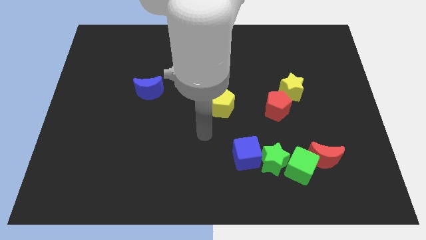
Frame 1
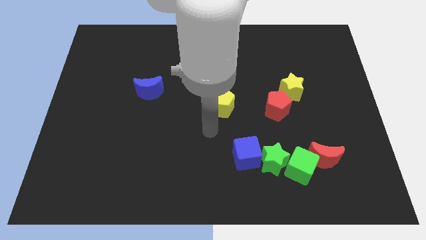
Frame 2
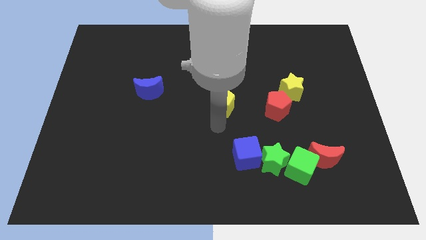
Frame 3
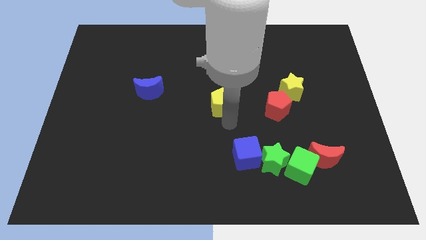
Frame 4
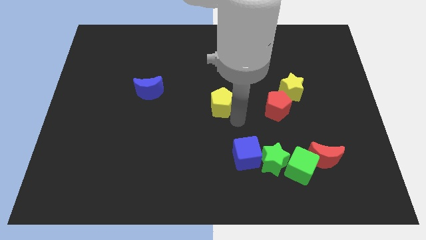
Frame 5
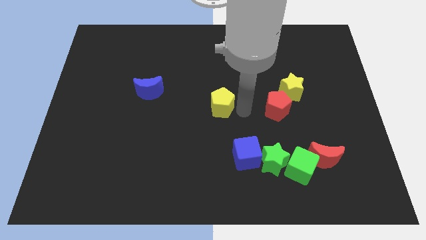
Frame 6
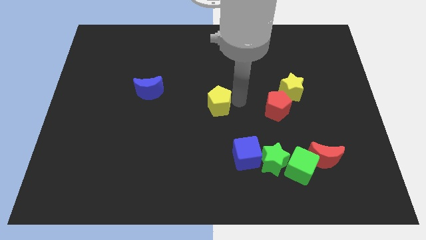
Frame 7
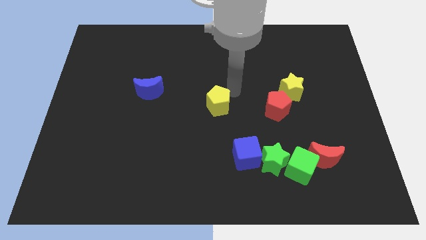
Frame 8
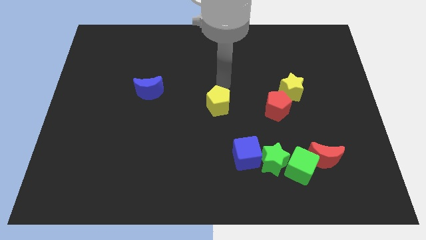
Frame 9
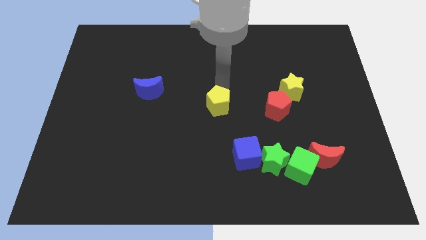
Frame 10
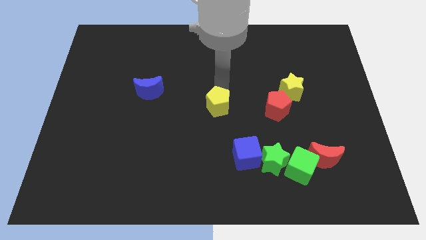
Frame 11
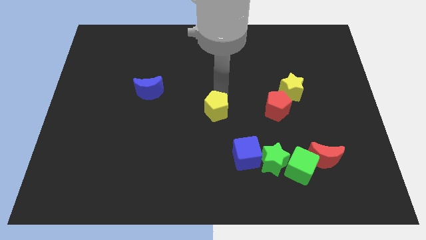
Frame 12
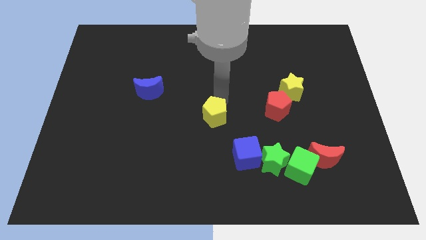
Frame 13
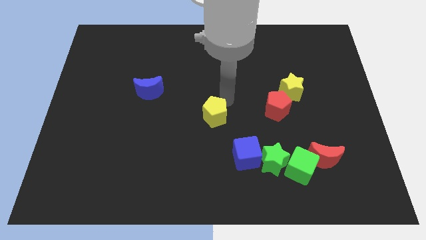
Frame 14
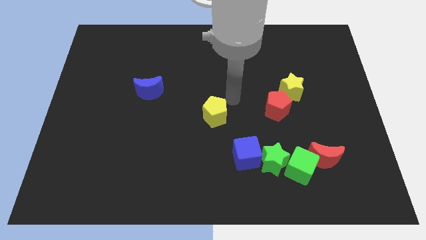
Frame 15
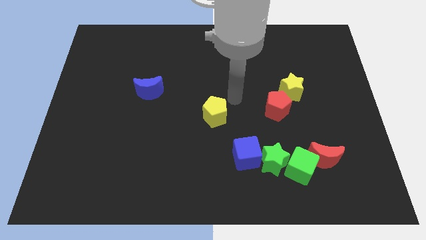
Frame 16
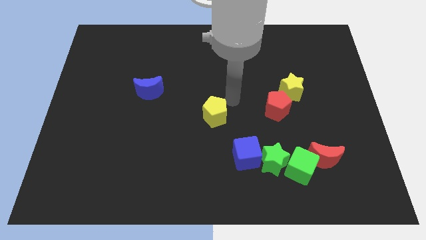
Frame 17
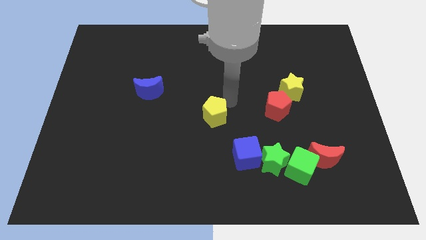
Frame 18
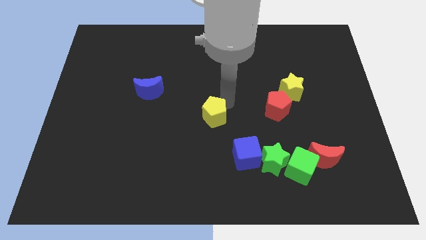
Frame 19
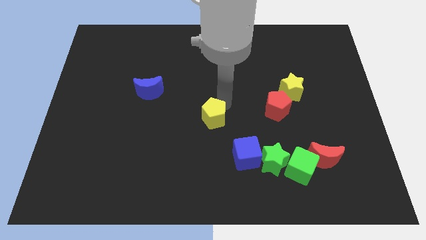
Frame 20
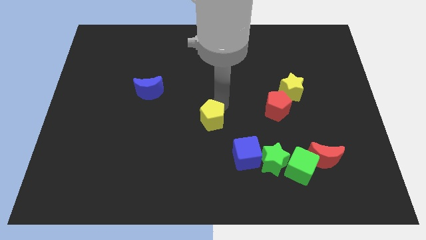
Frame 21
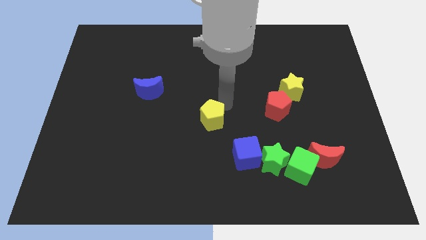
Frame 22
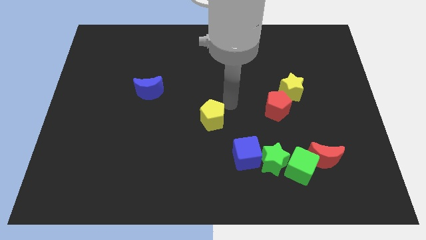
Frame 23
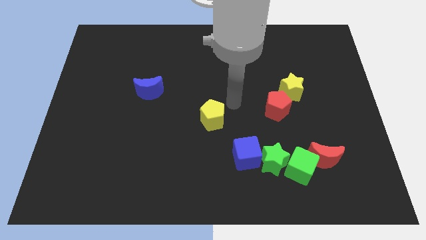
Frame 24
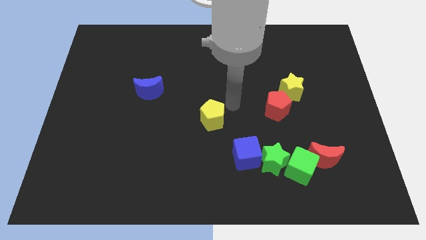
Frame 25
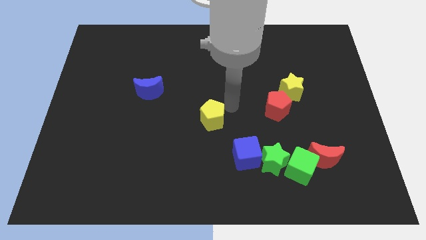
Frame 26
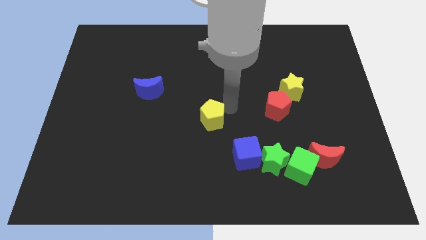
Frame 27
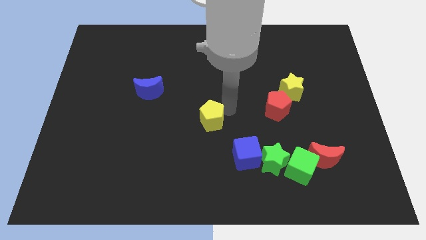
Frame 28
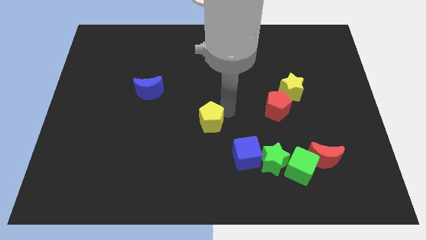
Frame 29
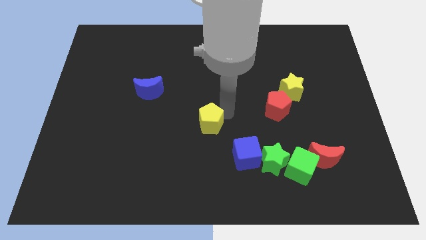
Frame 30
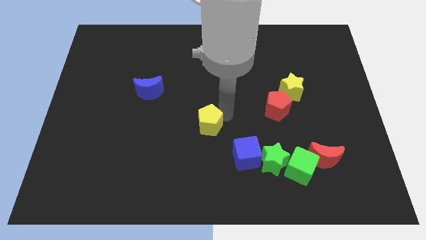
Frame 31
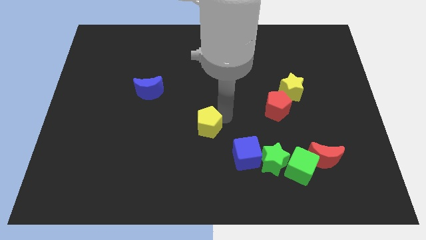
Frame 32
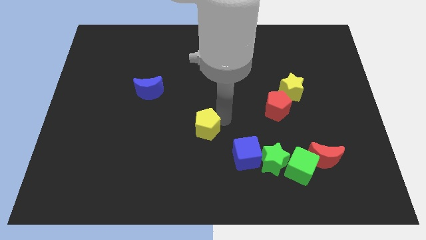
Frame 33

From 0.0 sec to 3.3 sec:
slightly slide the yellow pentagon diagonally downwards and to the left

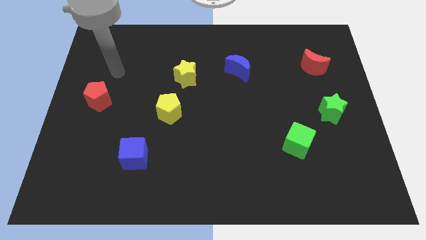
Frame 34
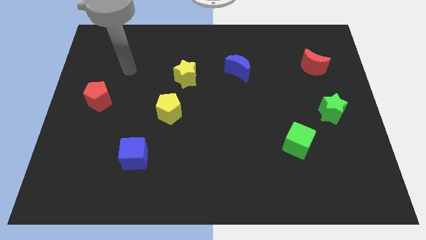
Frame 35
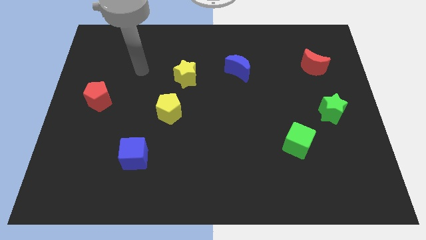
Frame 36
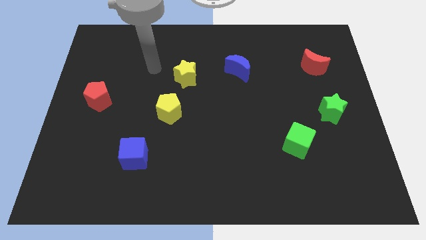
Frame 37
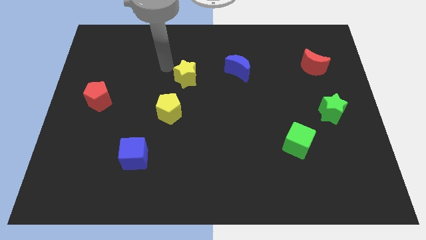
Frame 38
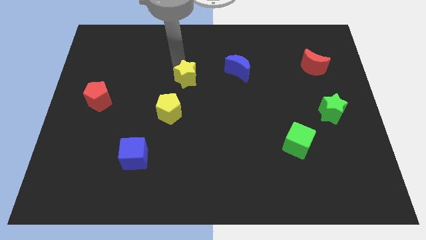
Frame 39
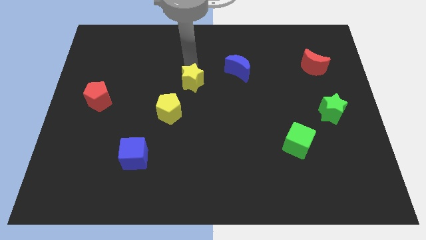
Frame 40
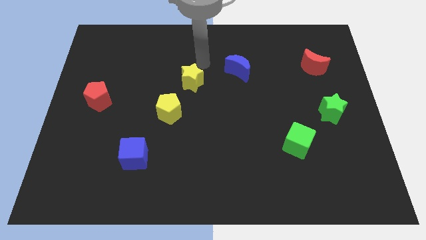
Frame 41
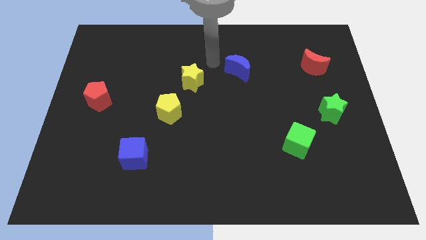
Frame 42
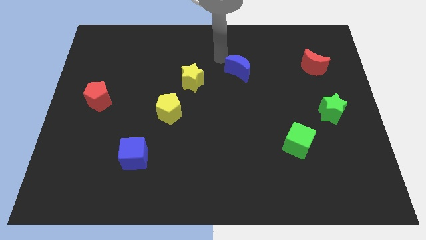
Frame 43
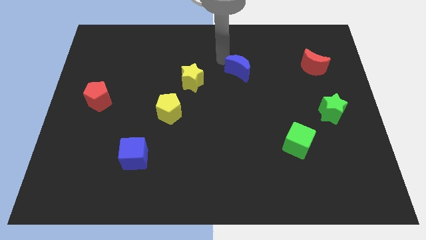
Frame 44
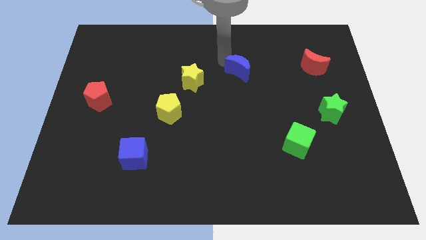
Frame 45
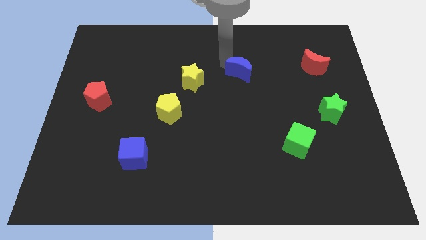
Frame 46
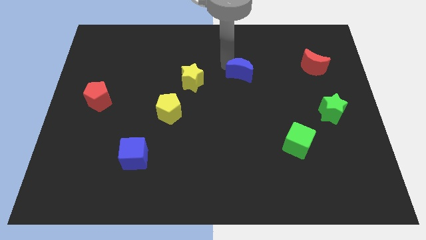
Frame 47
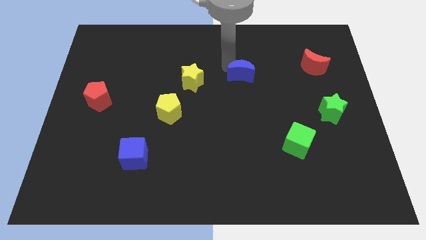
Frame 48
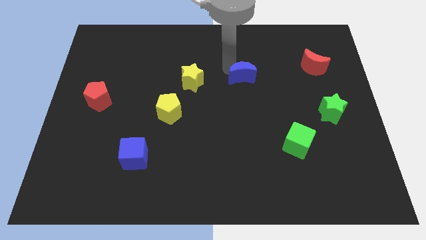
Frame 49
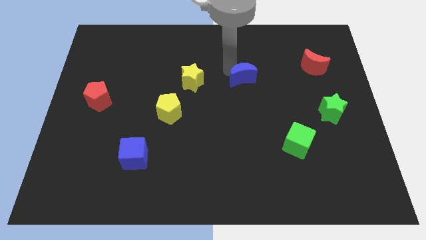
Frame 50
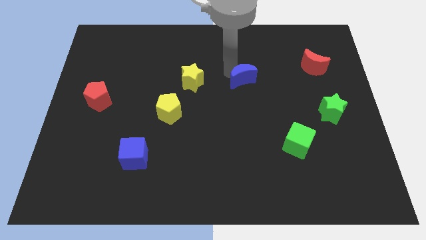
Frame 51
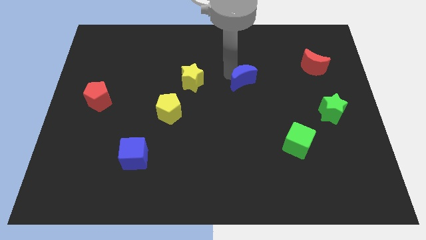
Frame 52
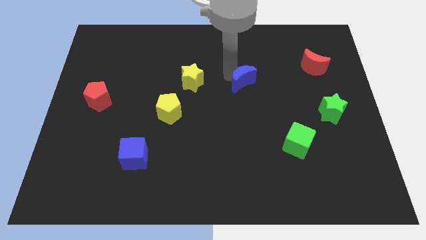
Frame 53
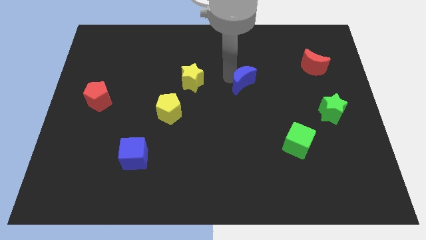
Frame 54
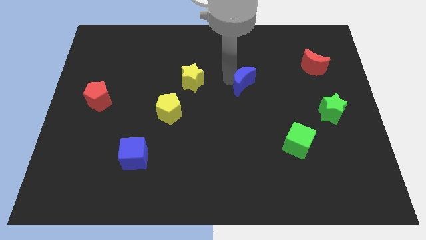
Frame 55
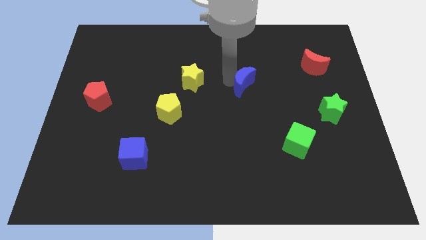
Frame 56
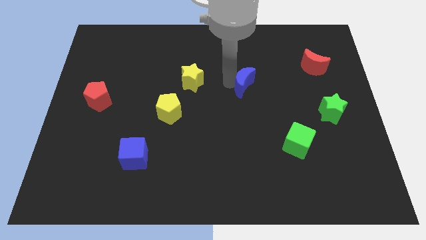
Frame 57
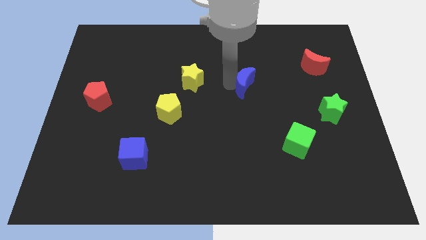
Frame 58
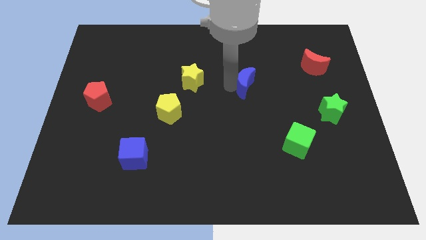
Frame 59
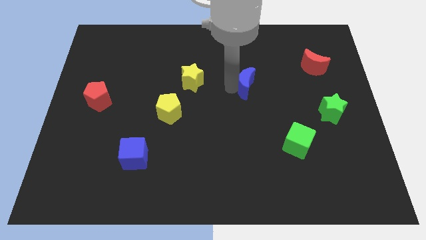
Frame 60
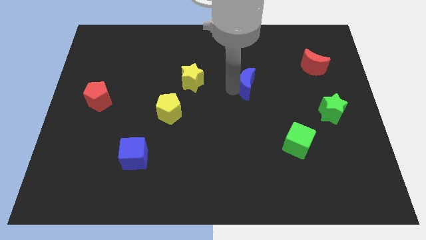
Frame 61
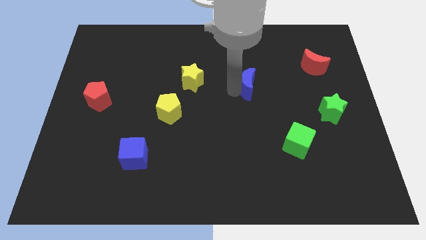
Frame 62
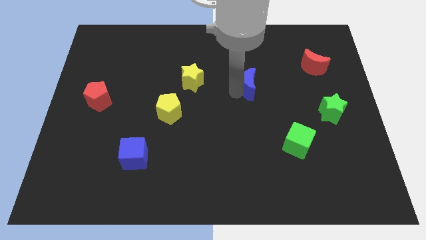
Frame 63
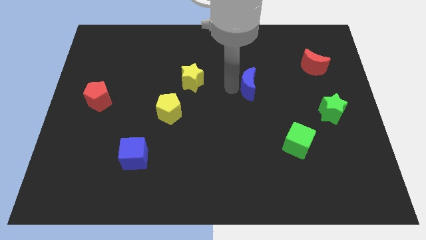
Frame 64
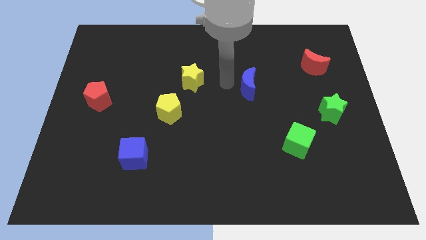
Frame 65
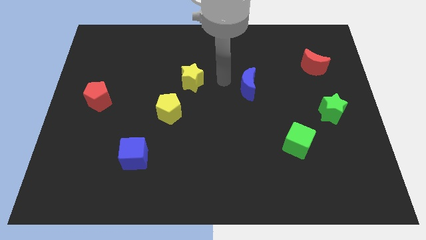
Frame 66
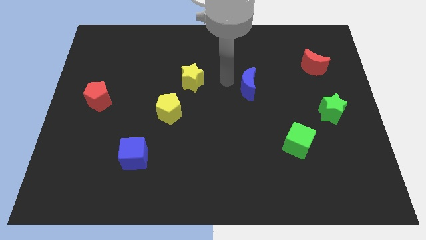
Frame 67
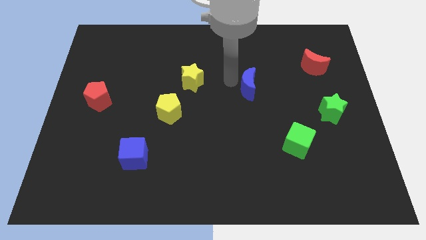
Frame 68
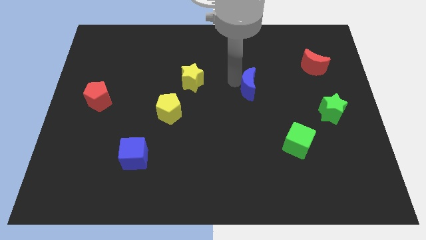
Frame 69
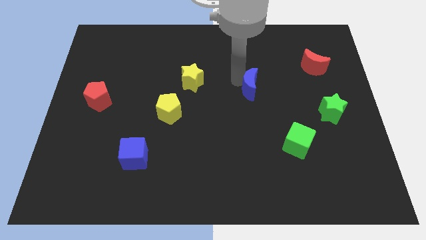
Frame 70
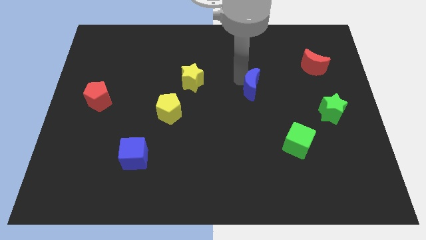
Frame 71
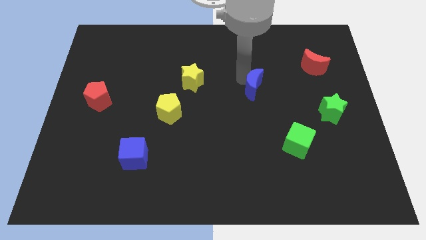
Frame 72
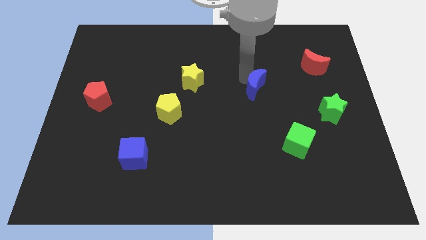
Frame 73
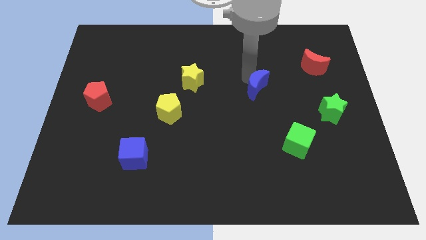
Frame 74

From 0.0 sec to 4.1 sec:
slightly move the blue moon diagonally downwards and to the right

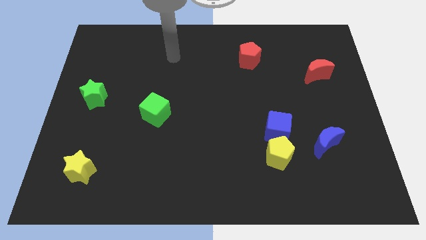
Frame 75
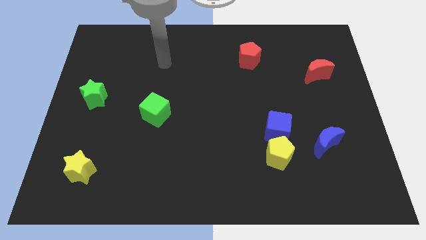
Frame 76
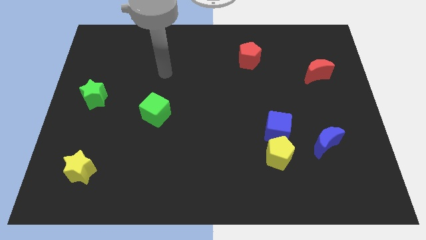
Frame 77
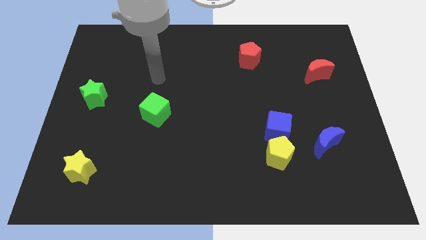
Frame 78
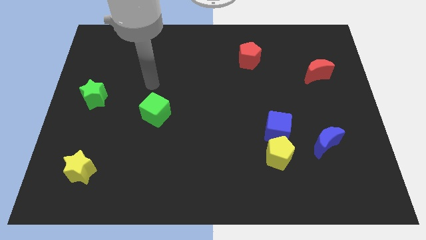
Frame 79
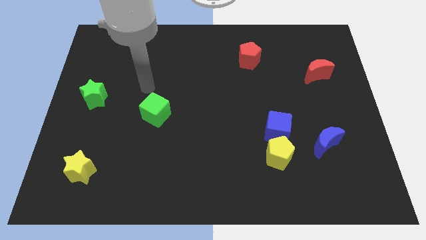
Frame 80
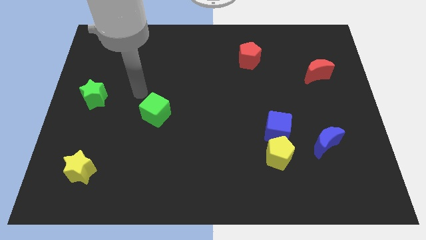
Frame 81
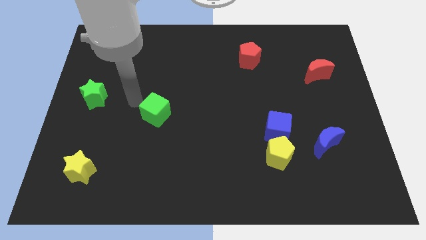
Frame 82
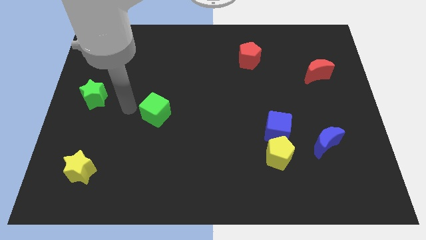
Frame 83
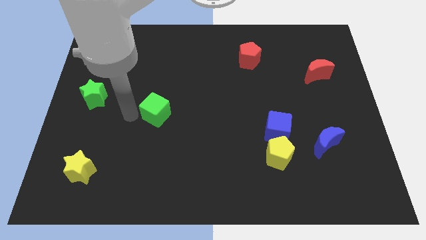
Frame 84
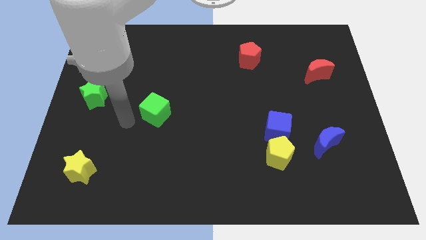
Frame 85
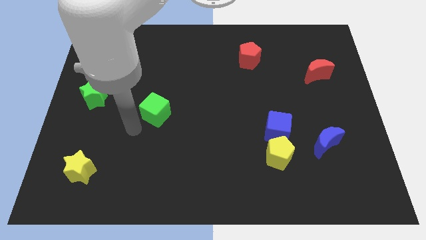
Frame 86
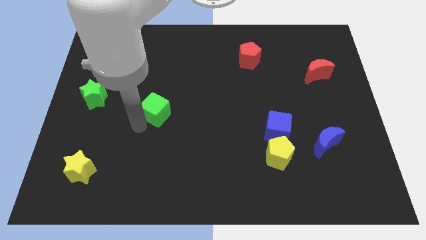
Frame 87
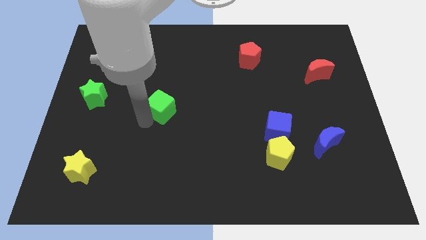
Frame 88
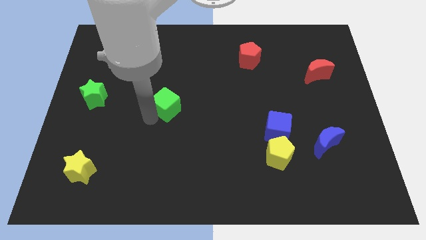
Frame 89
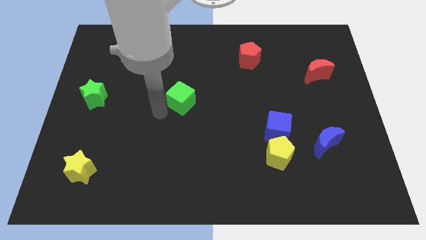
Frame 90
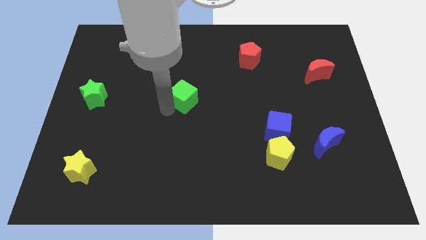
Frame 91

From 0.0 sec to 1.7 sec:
push the green cube a little diagonally up and right
